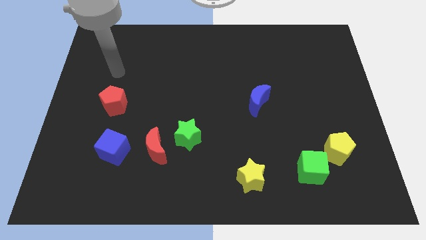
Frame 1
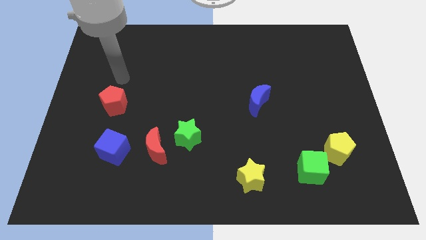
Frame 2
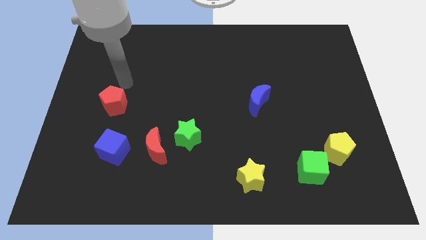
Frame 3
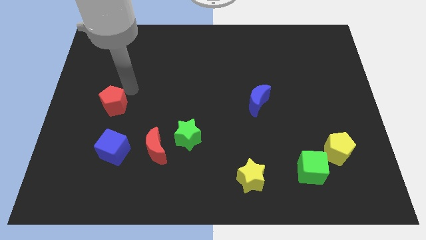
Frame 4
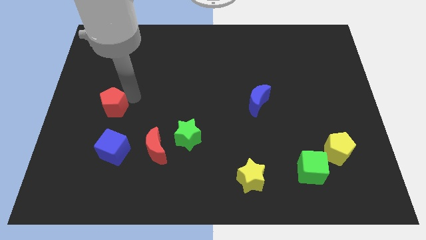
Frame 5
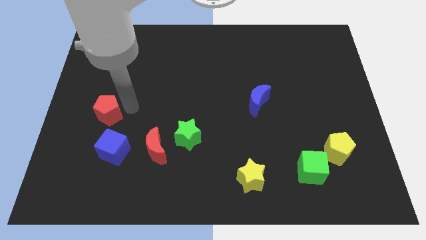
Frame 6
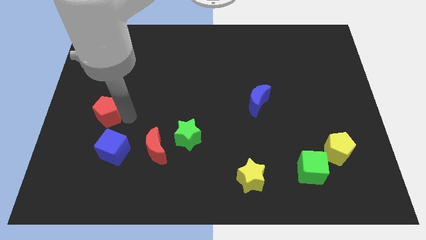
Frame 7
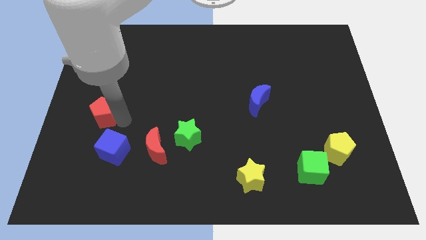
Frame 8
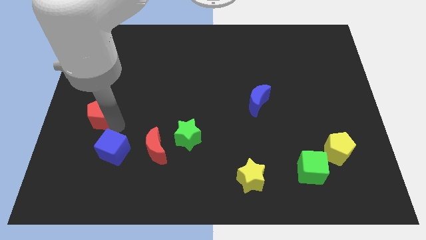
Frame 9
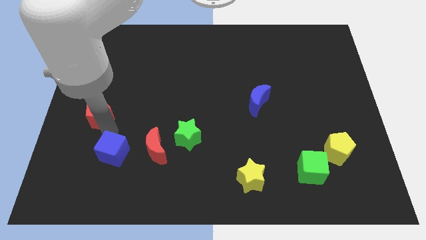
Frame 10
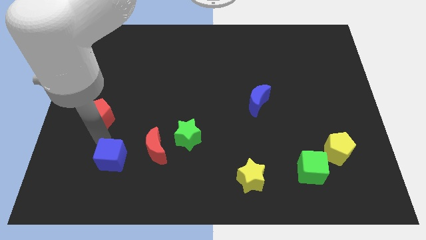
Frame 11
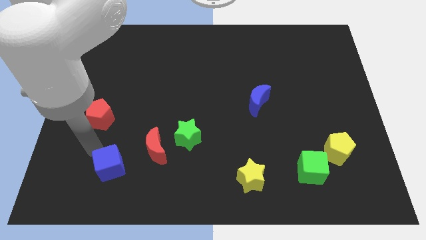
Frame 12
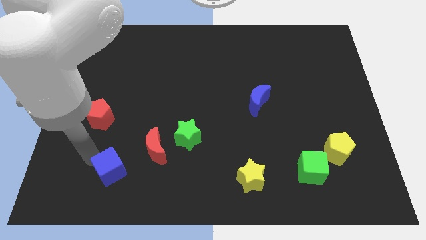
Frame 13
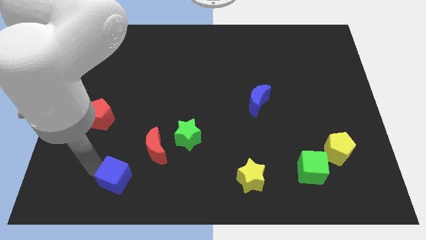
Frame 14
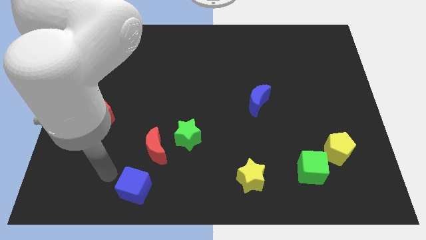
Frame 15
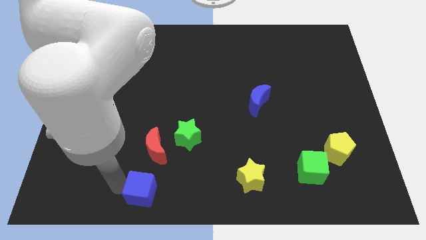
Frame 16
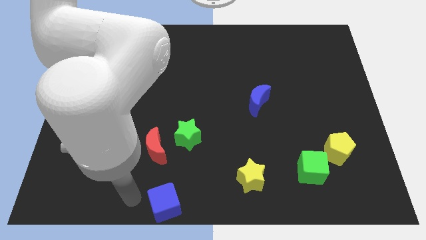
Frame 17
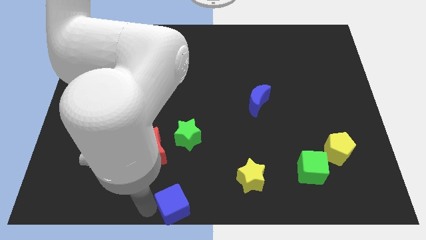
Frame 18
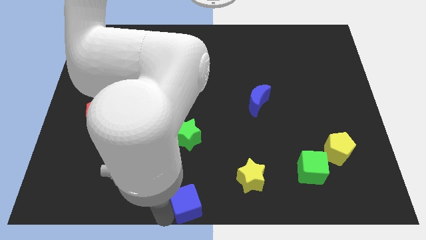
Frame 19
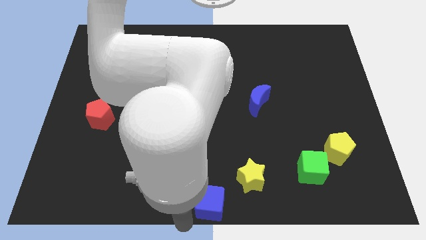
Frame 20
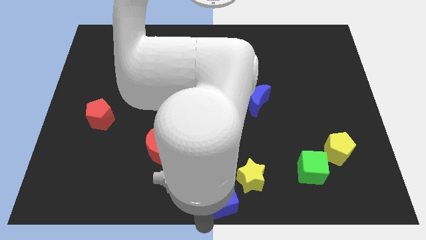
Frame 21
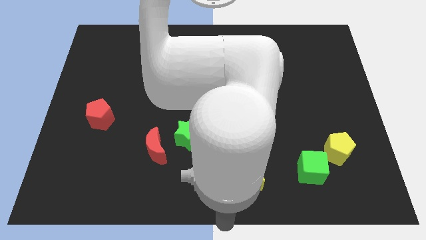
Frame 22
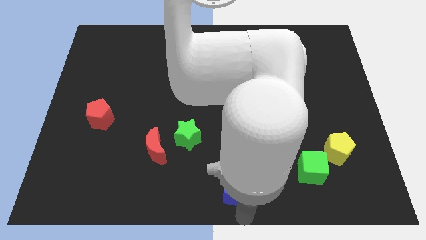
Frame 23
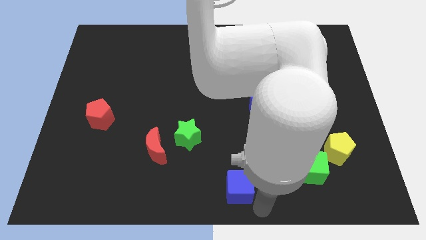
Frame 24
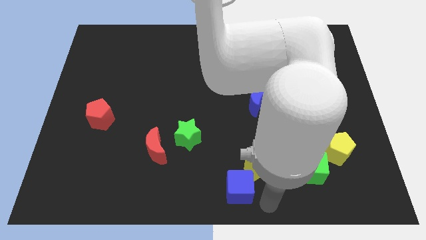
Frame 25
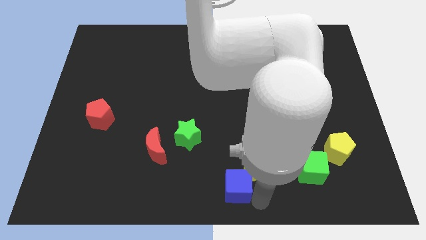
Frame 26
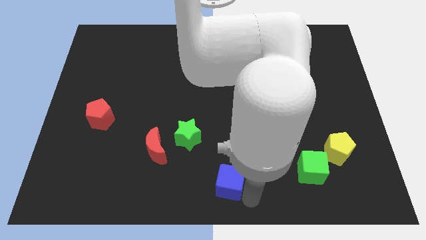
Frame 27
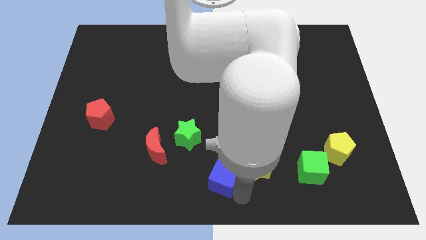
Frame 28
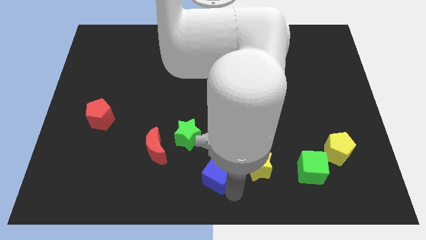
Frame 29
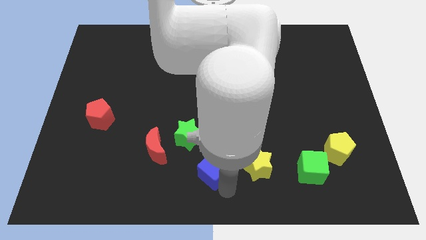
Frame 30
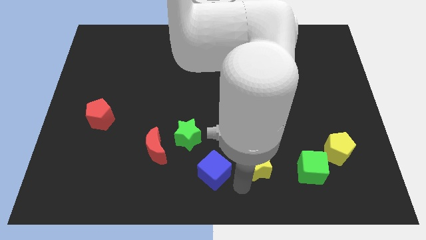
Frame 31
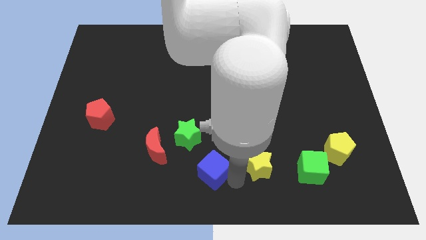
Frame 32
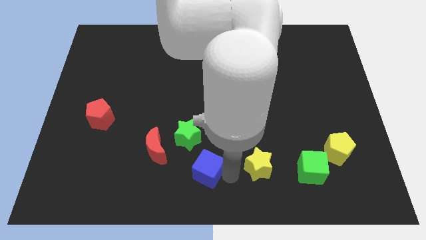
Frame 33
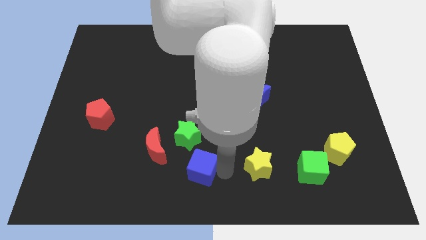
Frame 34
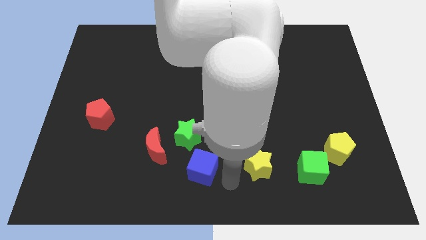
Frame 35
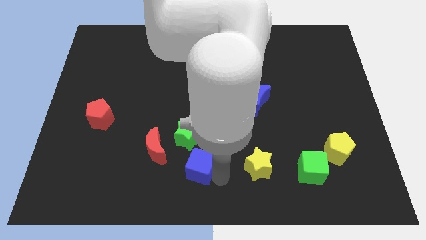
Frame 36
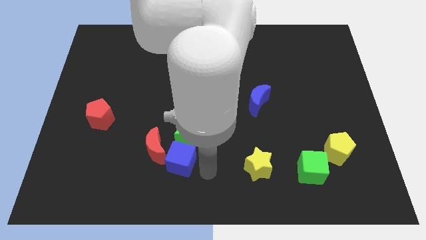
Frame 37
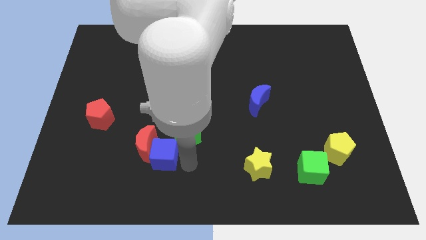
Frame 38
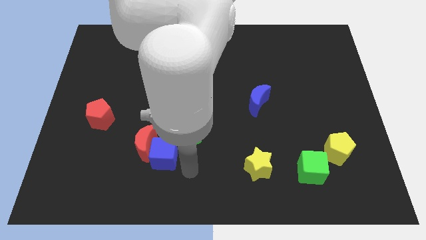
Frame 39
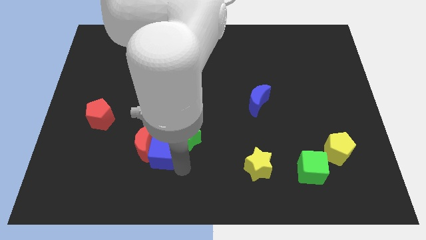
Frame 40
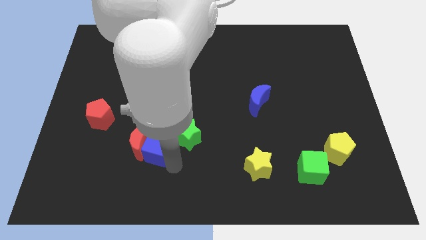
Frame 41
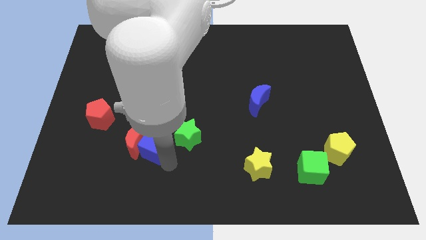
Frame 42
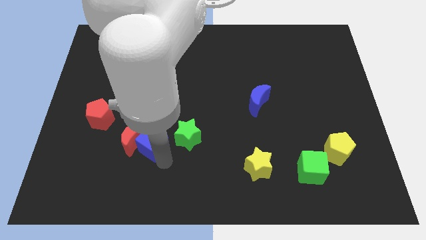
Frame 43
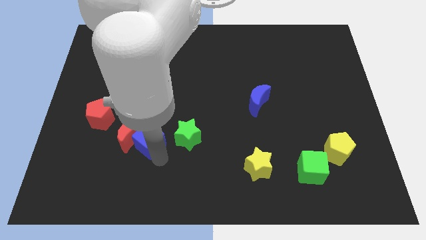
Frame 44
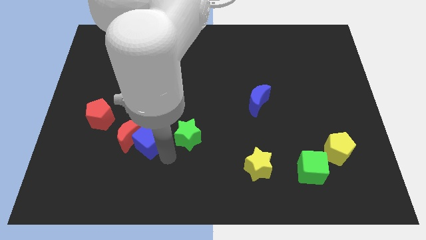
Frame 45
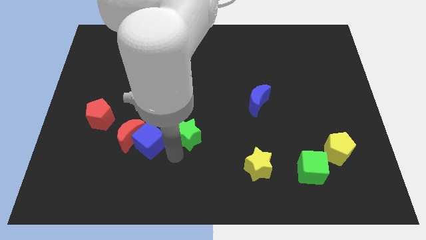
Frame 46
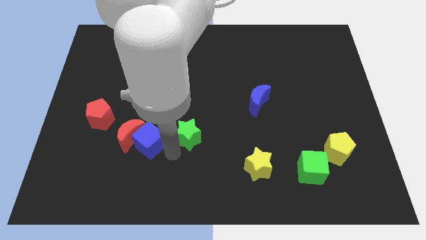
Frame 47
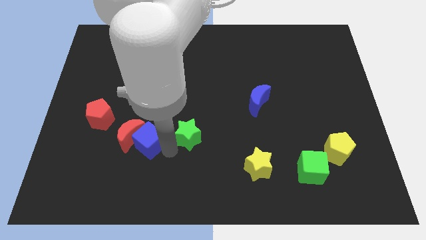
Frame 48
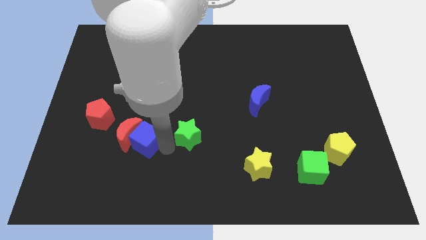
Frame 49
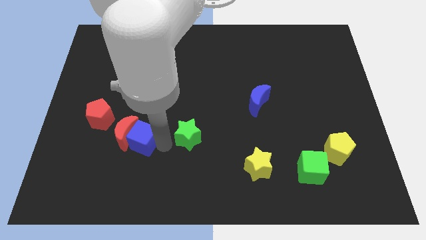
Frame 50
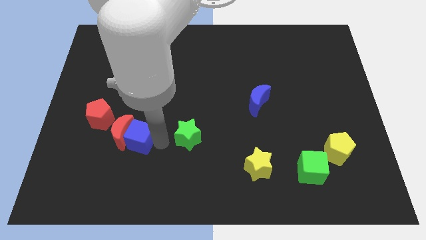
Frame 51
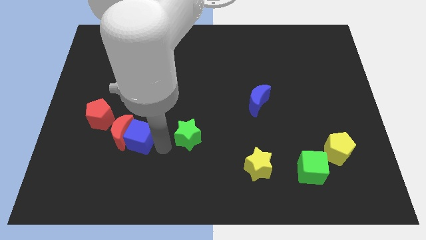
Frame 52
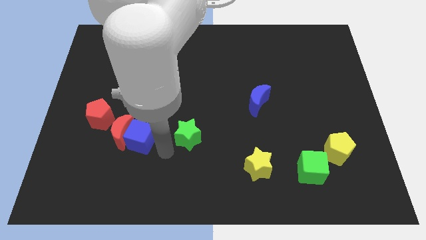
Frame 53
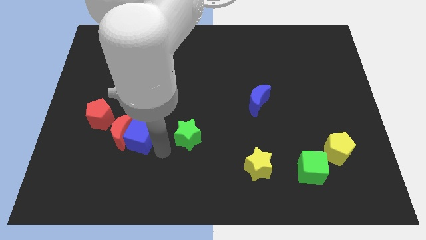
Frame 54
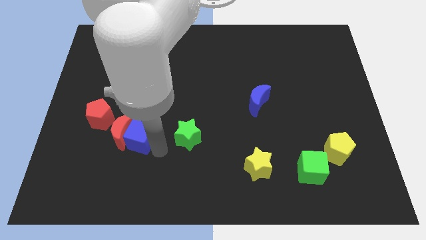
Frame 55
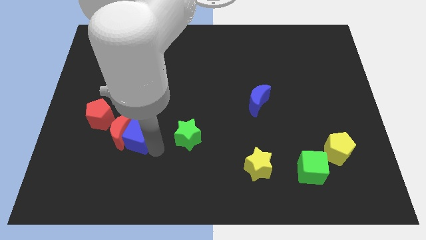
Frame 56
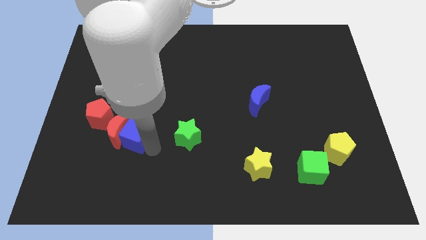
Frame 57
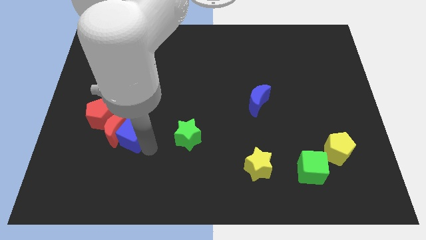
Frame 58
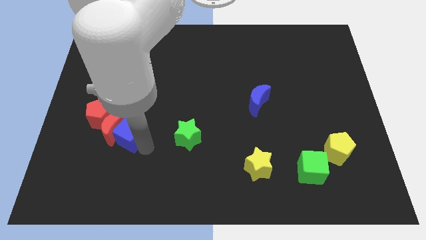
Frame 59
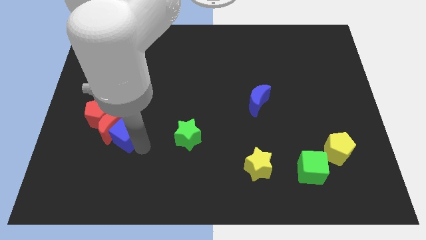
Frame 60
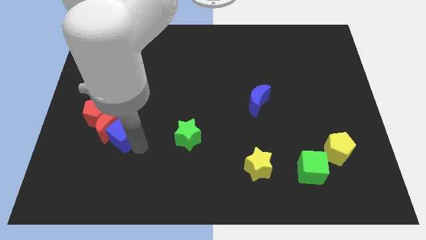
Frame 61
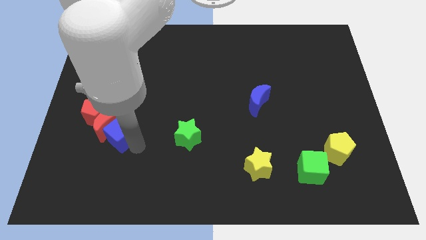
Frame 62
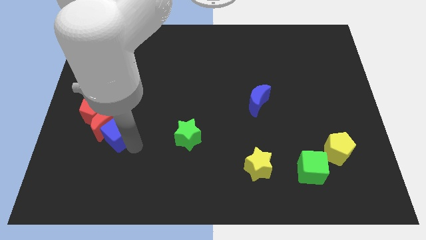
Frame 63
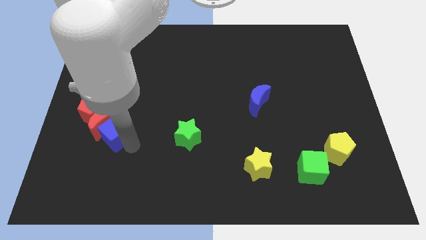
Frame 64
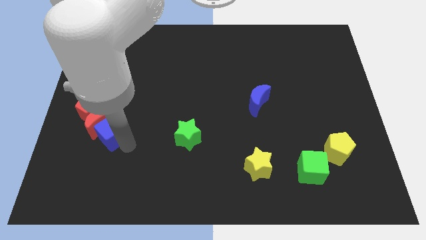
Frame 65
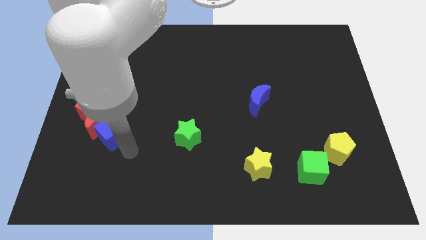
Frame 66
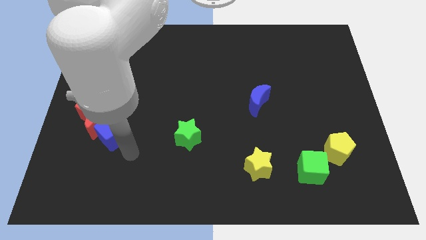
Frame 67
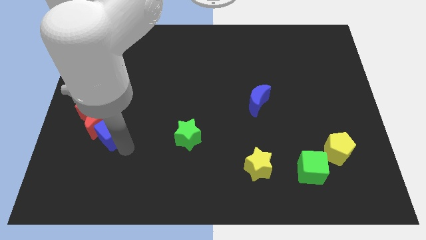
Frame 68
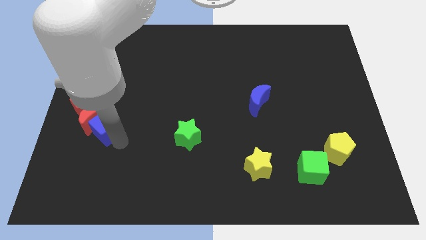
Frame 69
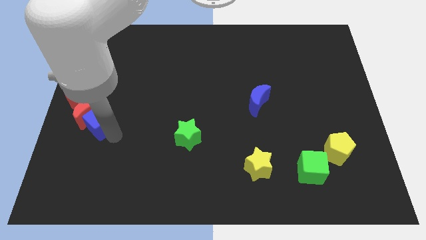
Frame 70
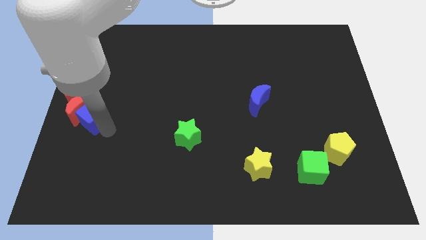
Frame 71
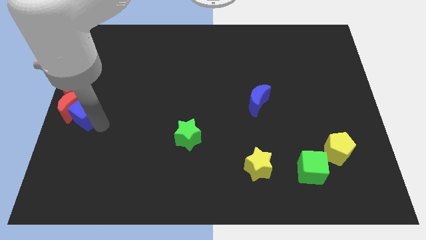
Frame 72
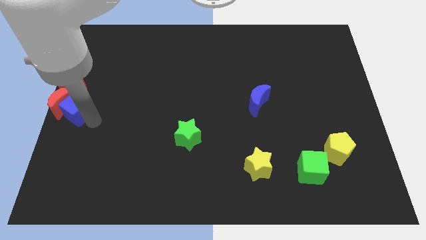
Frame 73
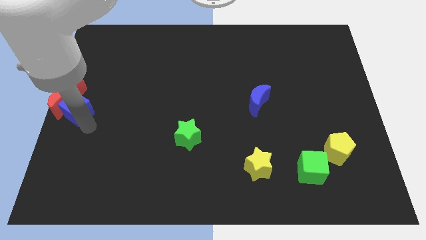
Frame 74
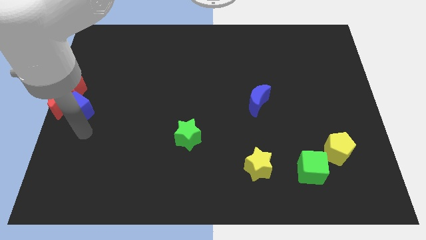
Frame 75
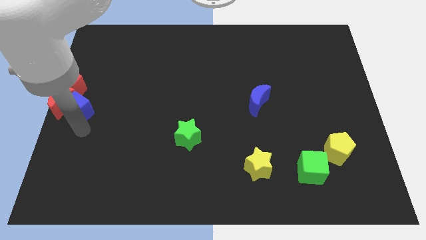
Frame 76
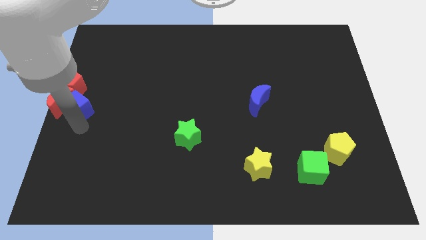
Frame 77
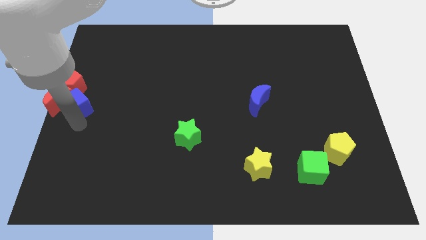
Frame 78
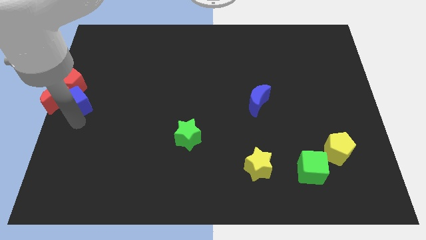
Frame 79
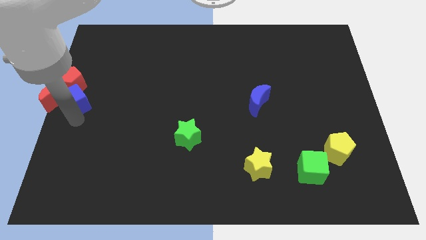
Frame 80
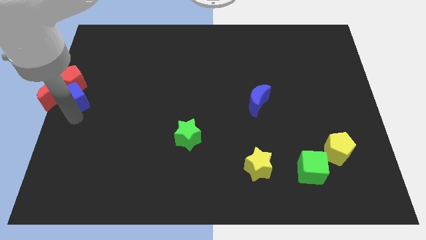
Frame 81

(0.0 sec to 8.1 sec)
slide the blue cube next to the red pentagon

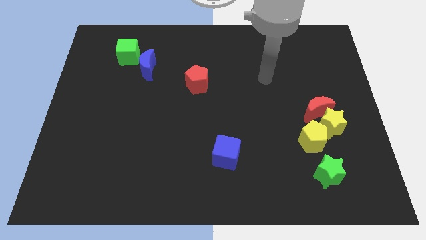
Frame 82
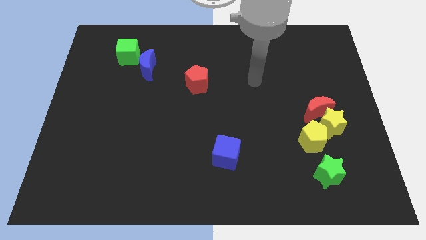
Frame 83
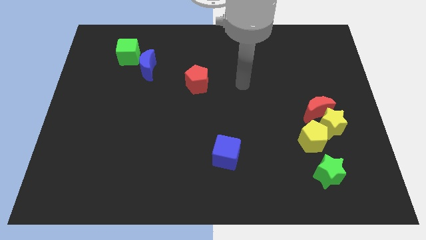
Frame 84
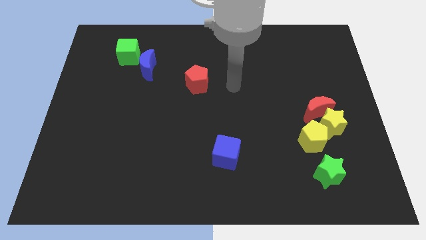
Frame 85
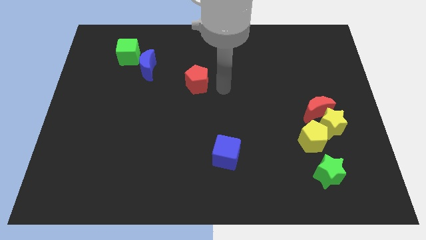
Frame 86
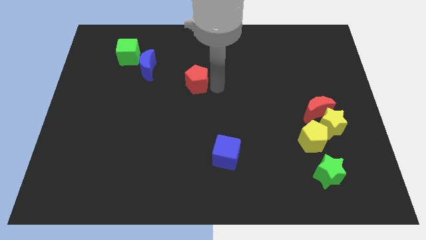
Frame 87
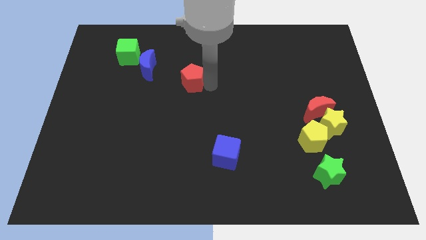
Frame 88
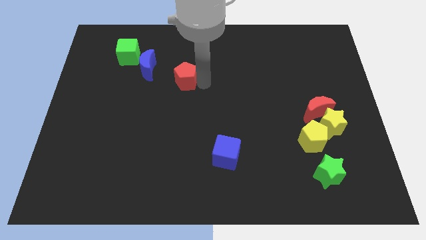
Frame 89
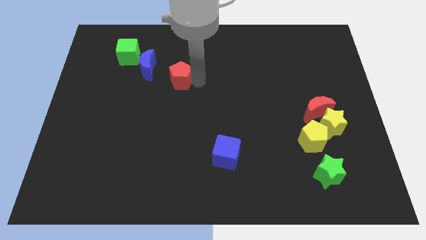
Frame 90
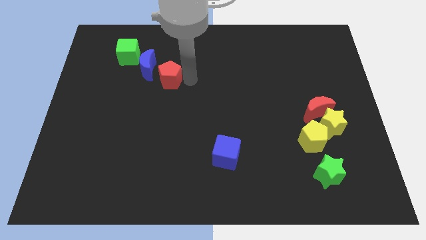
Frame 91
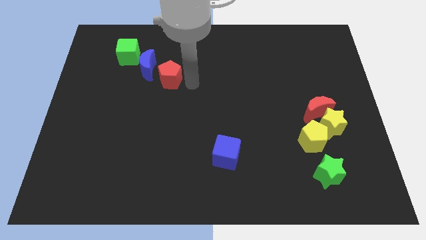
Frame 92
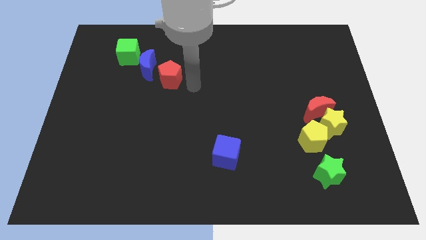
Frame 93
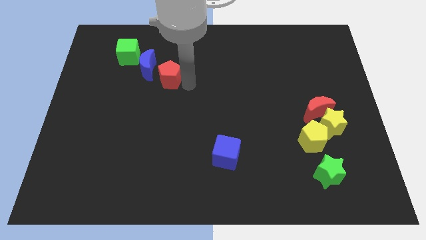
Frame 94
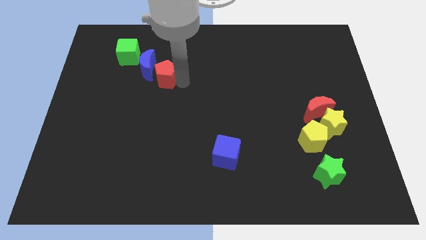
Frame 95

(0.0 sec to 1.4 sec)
move the red pentagon to the blue moon
